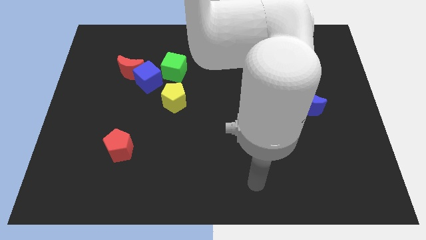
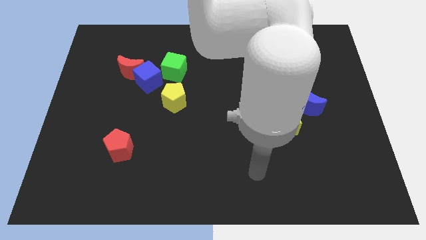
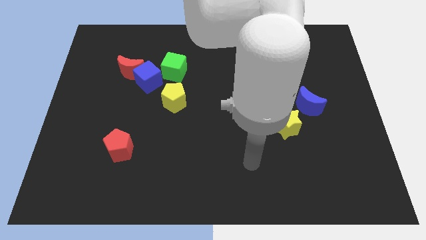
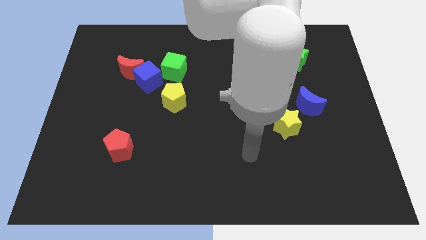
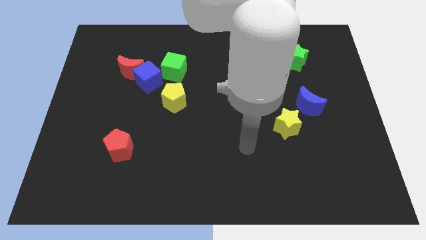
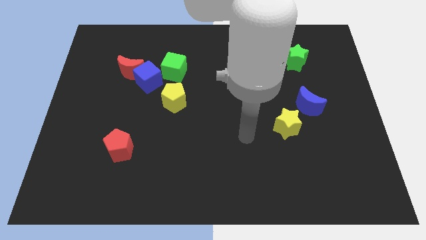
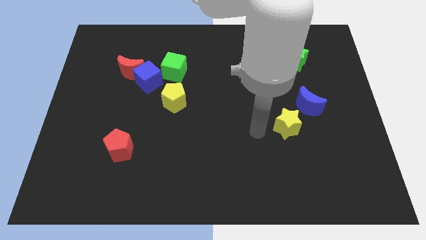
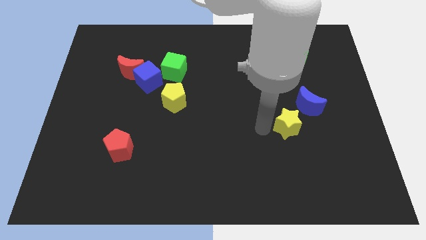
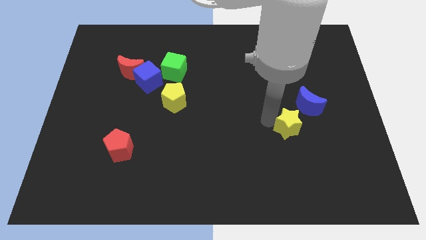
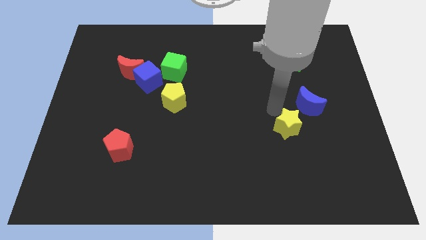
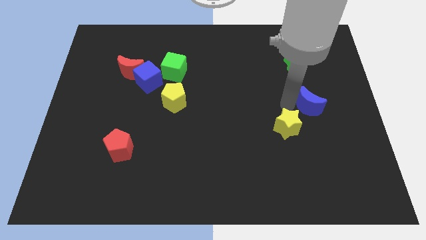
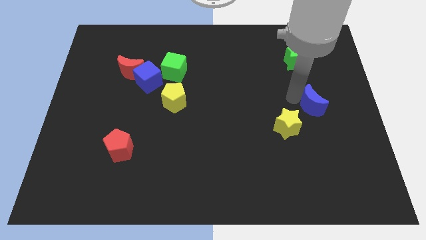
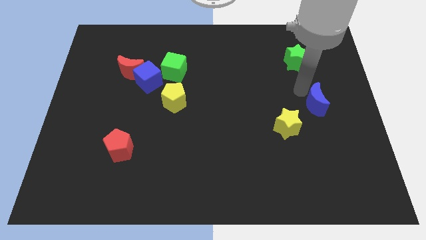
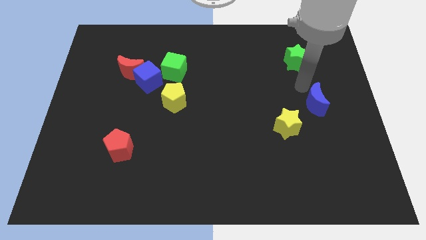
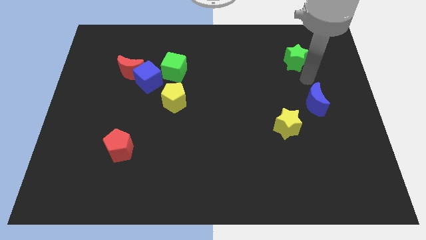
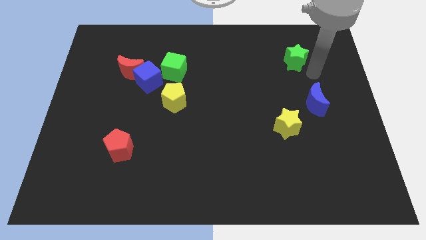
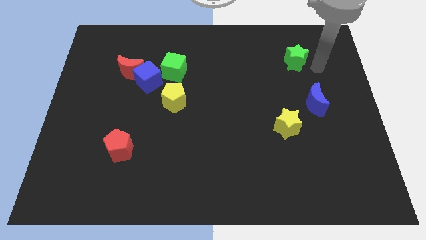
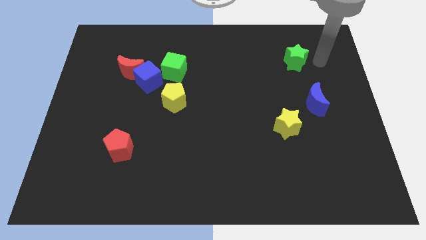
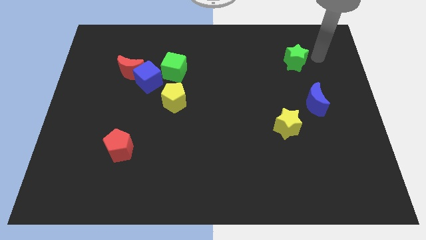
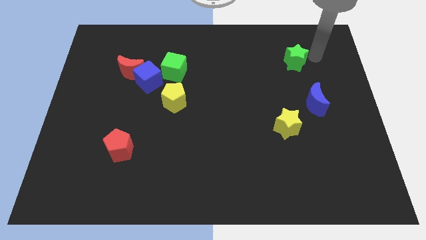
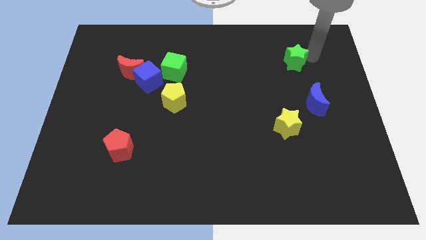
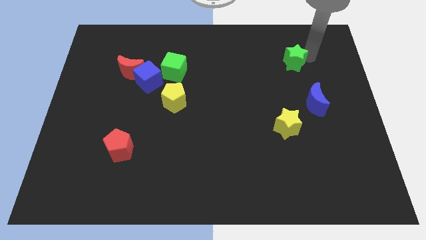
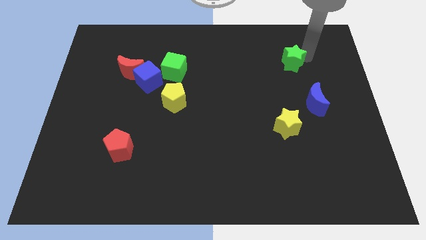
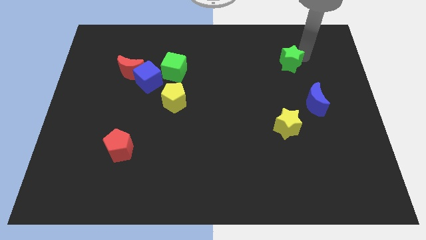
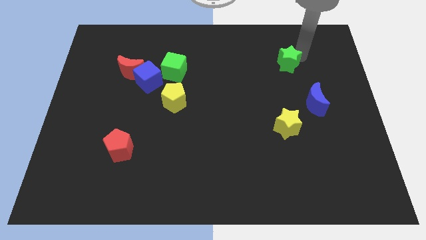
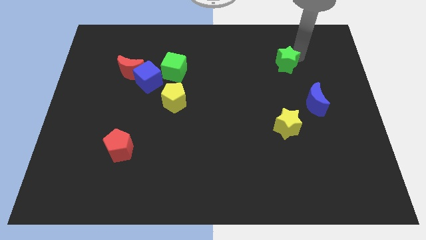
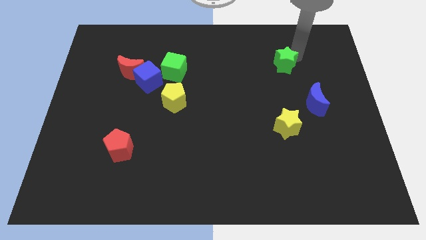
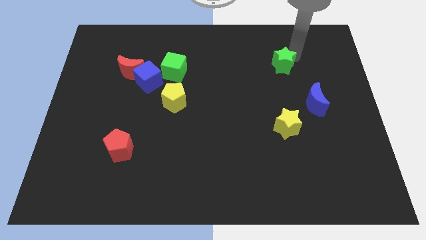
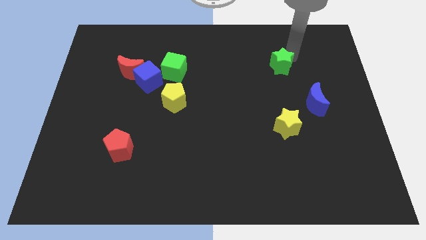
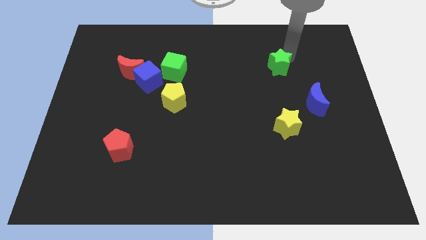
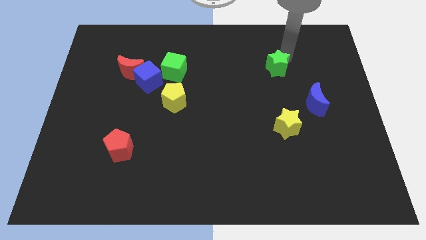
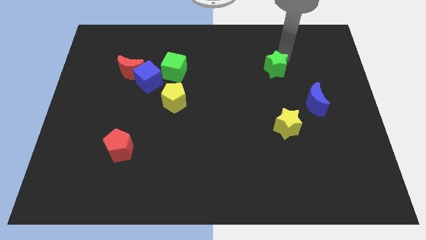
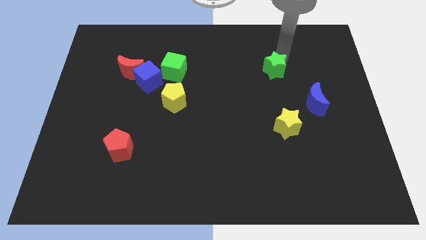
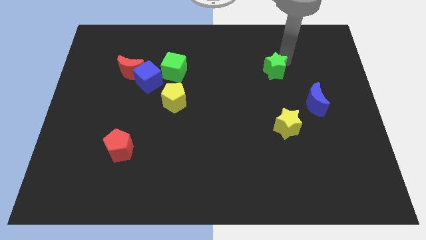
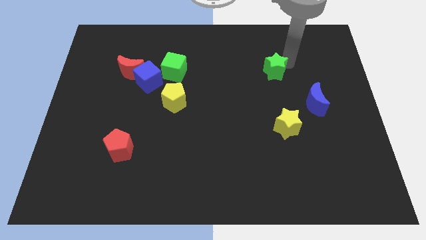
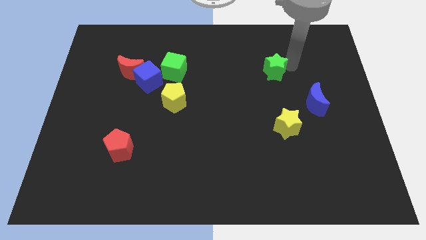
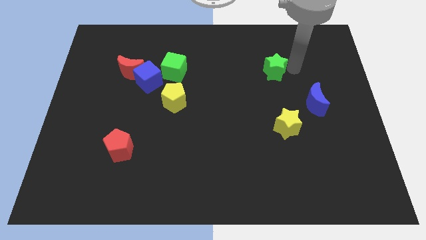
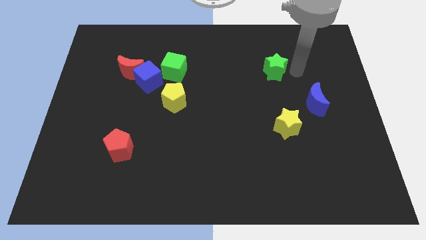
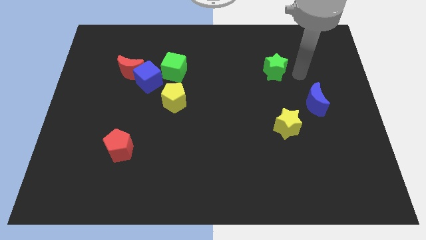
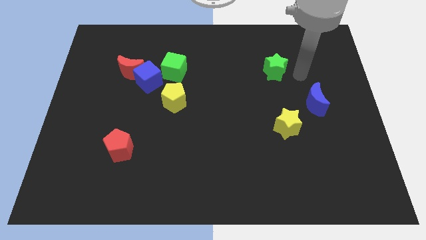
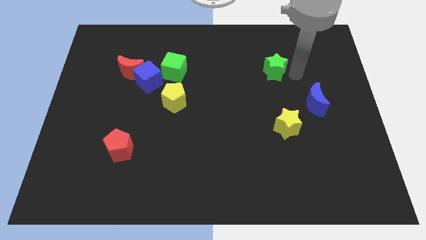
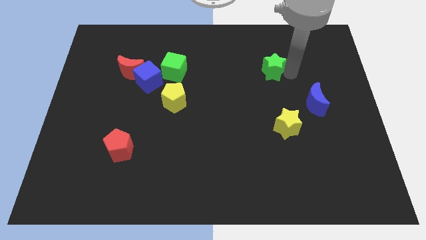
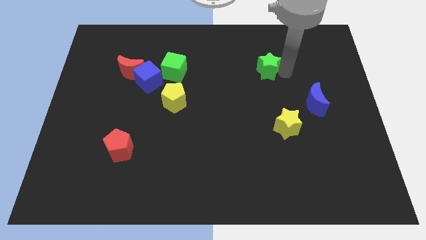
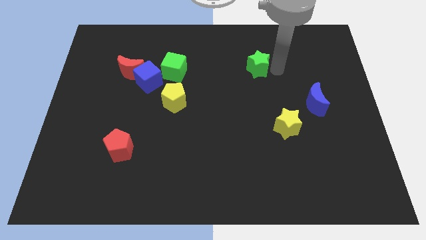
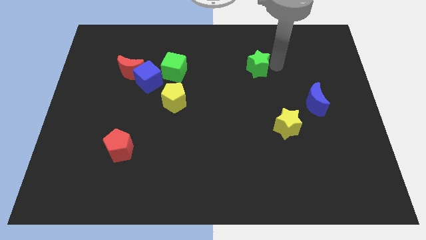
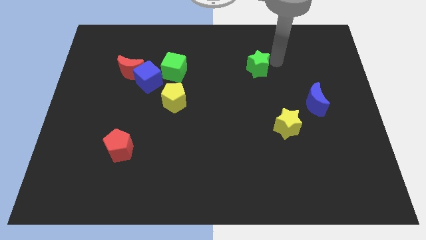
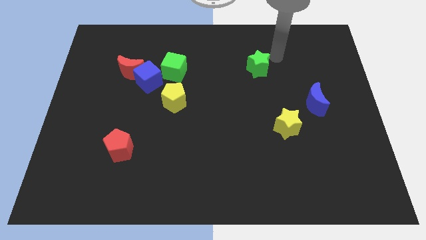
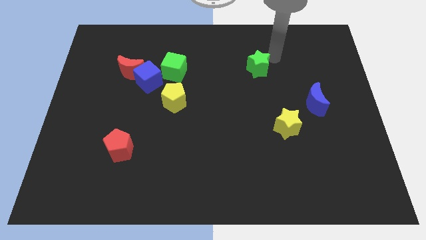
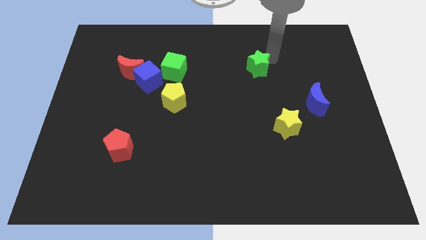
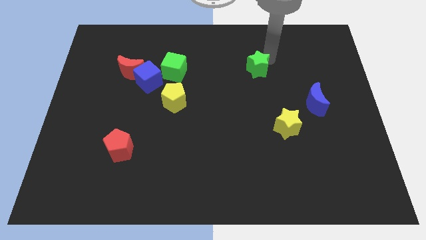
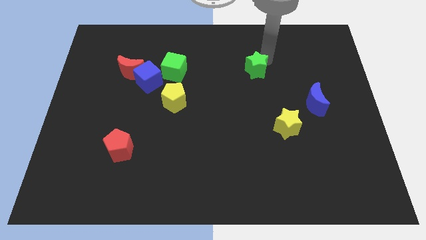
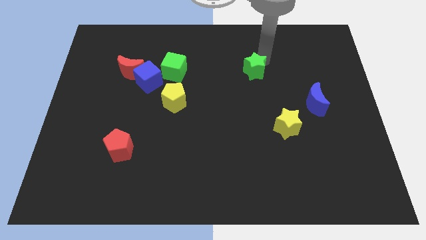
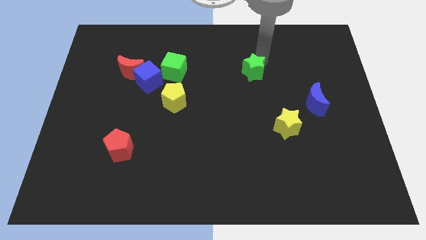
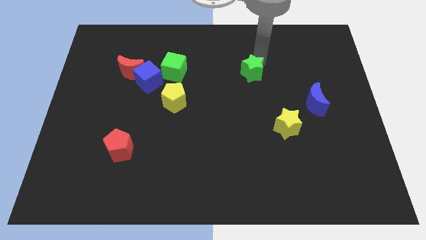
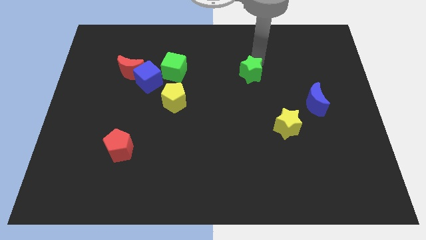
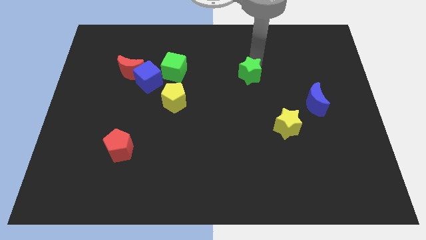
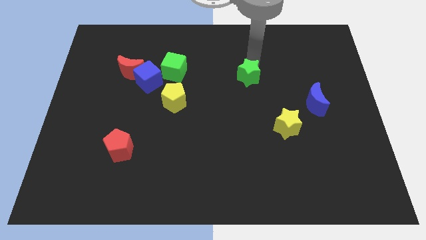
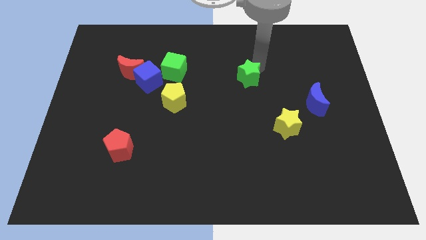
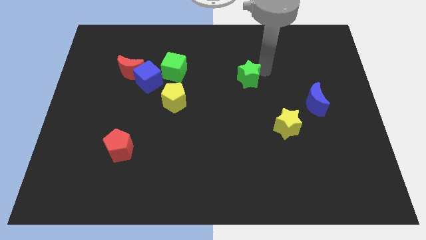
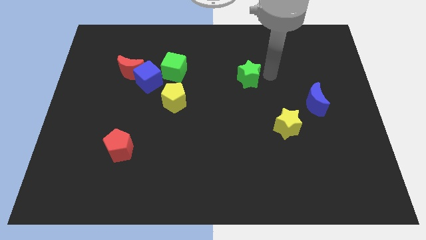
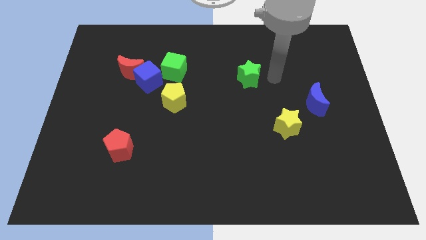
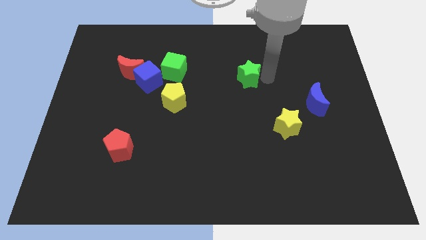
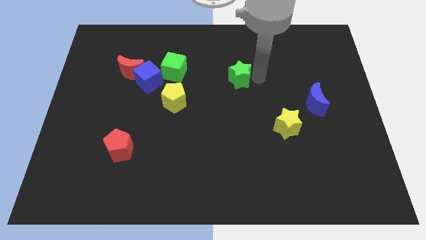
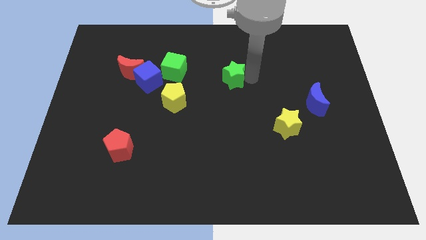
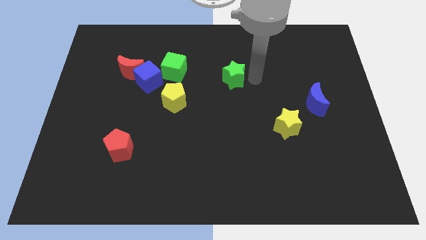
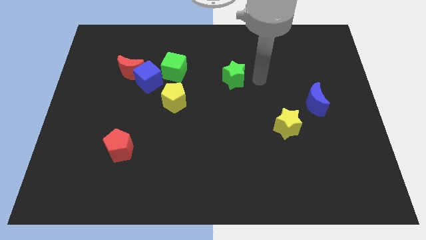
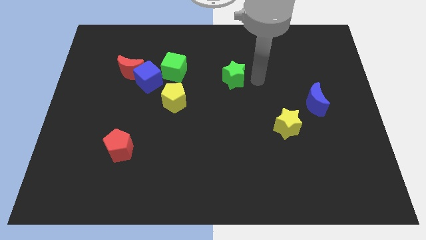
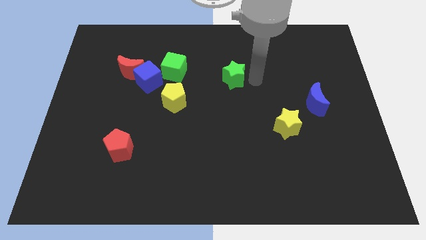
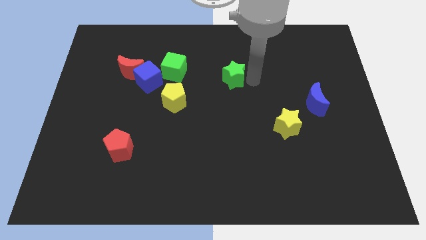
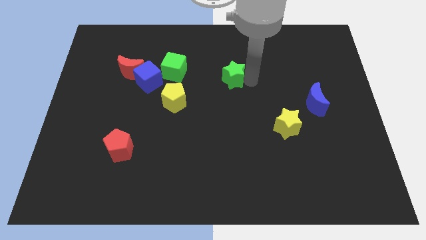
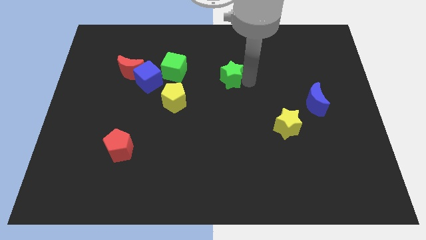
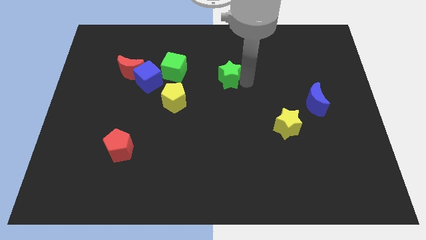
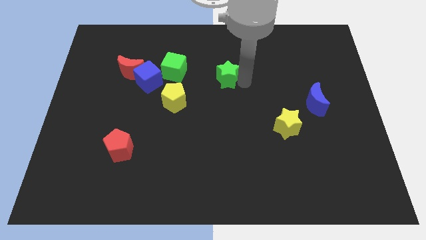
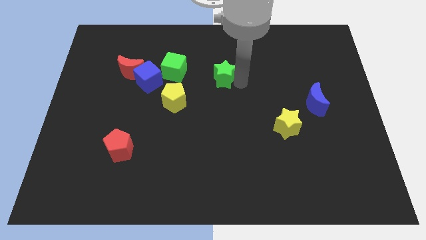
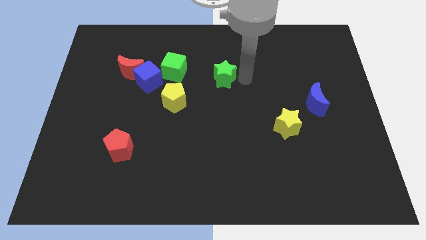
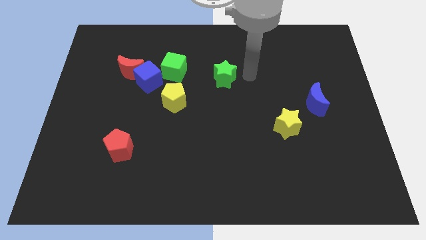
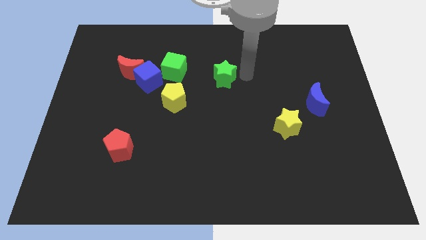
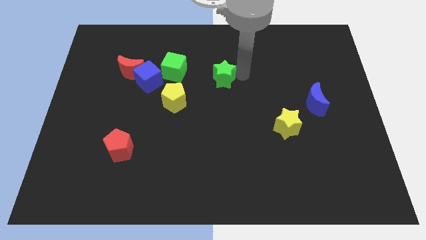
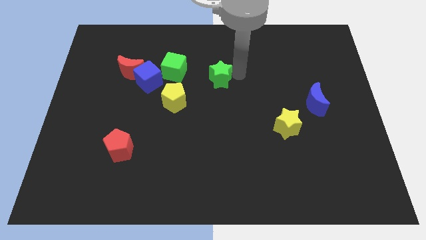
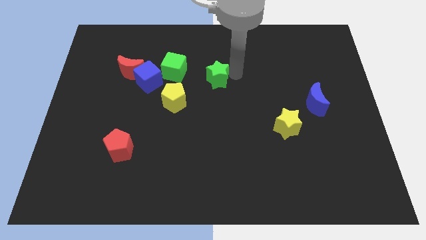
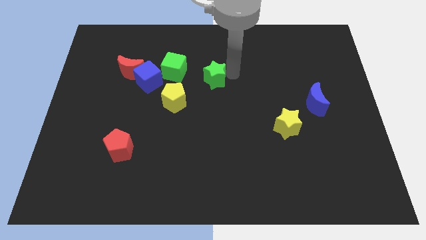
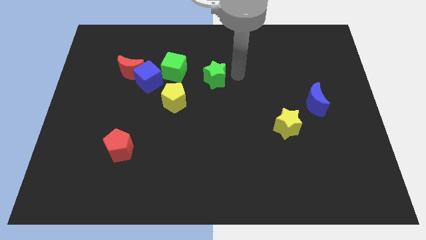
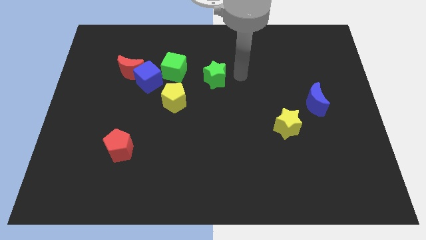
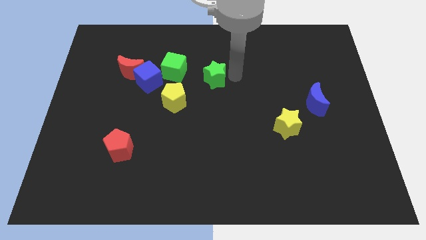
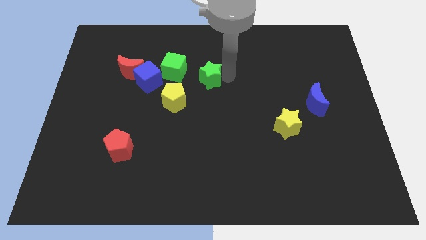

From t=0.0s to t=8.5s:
move the green star to the right of the blue cube
